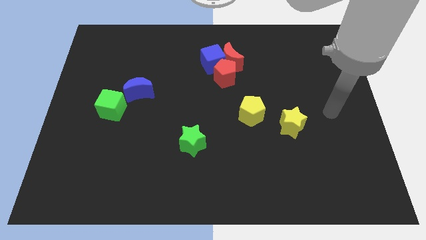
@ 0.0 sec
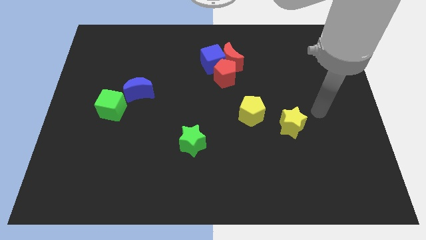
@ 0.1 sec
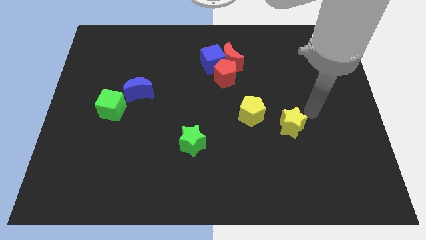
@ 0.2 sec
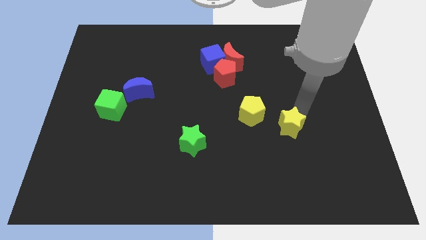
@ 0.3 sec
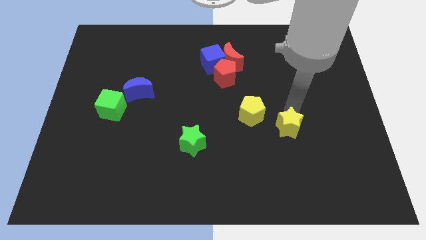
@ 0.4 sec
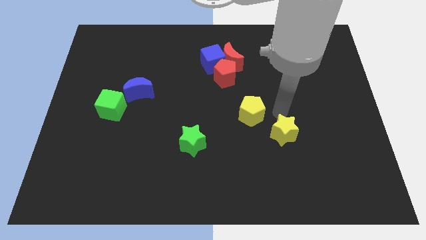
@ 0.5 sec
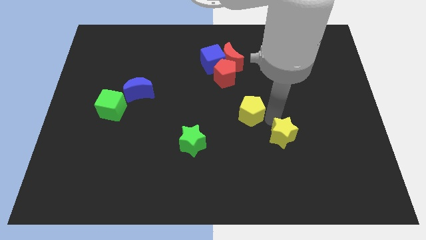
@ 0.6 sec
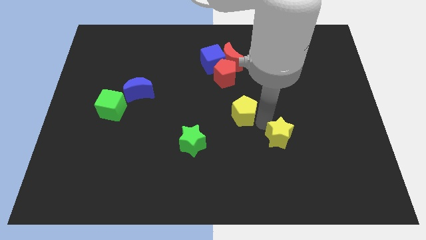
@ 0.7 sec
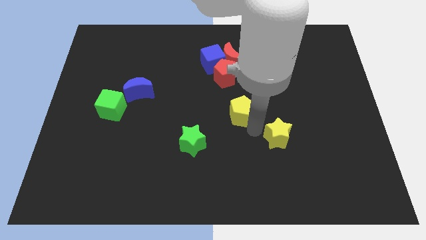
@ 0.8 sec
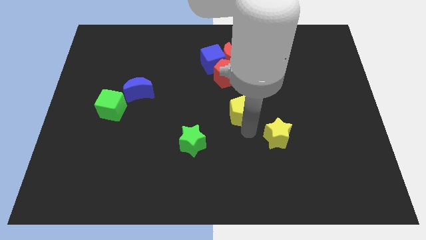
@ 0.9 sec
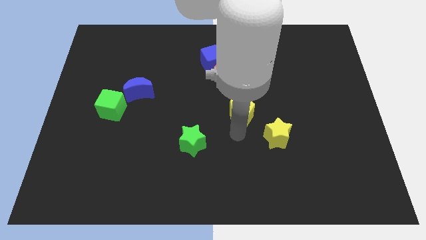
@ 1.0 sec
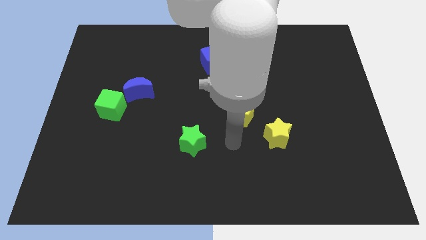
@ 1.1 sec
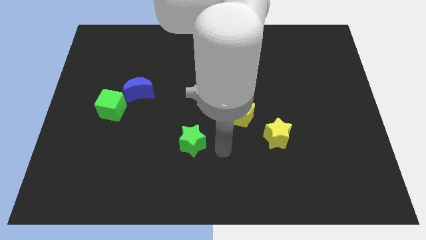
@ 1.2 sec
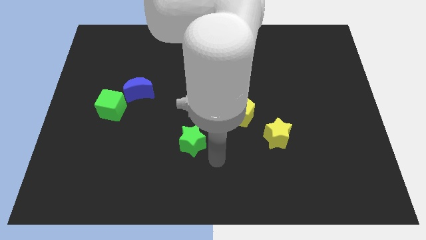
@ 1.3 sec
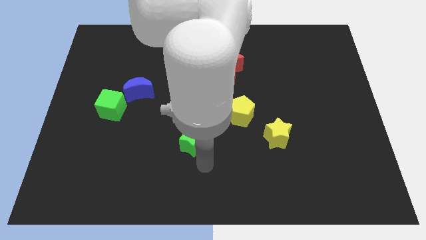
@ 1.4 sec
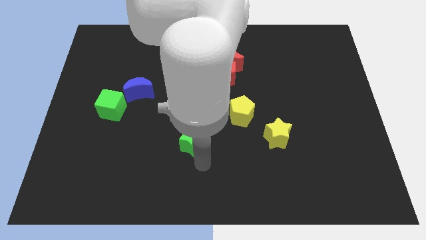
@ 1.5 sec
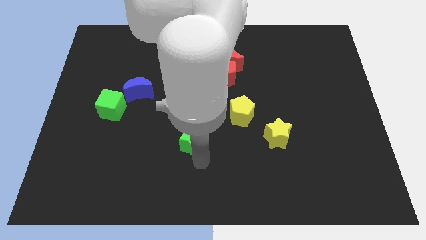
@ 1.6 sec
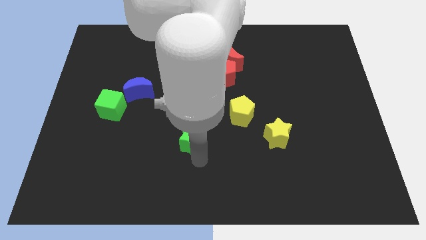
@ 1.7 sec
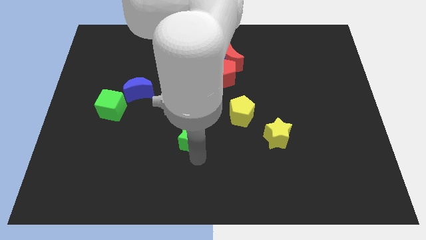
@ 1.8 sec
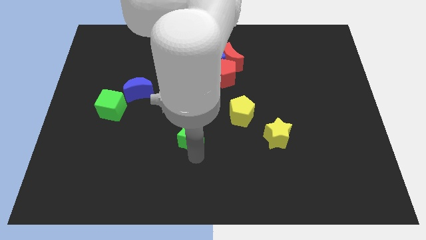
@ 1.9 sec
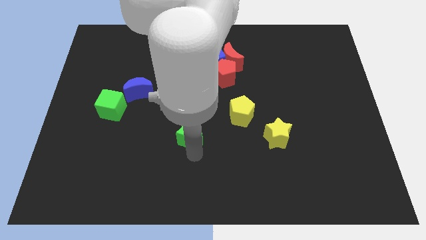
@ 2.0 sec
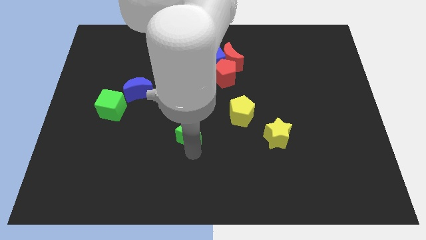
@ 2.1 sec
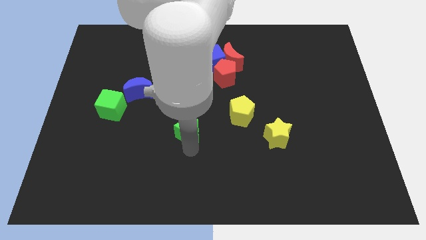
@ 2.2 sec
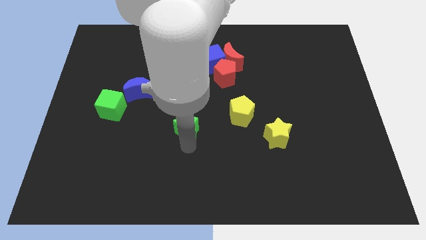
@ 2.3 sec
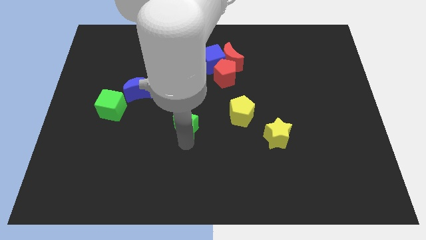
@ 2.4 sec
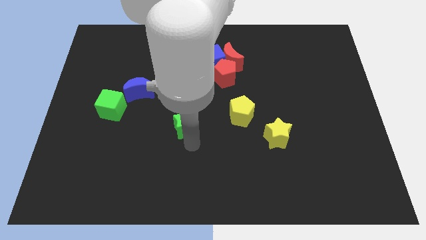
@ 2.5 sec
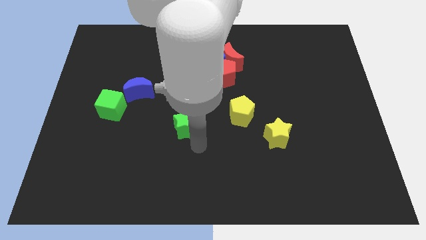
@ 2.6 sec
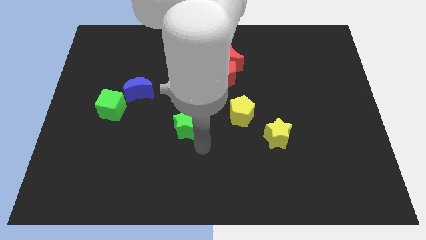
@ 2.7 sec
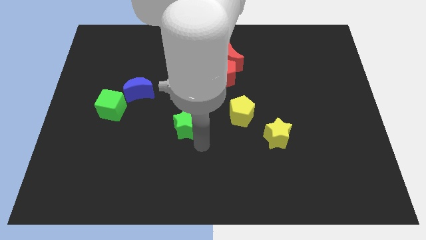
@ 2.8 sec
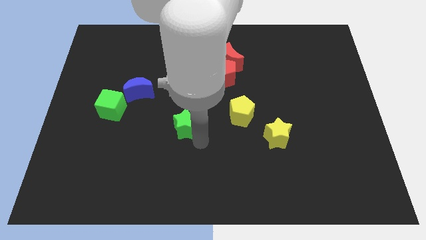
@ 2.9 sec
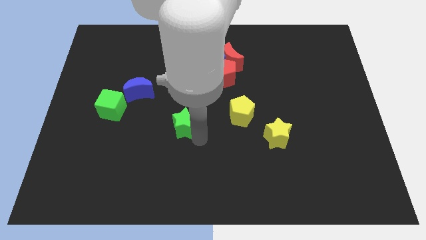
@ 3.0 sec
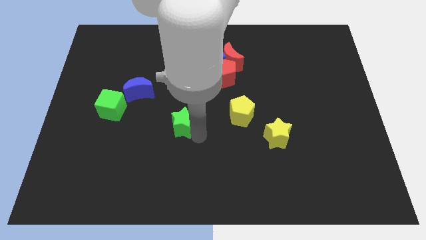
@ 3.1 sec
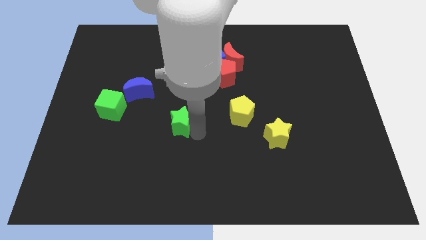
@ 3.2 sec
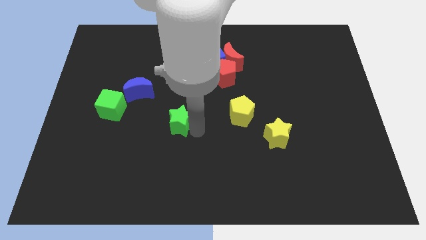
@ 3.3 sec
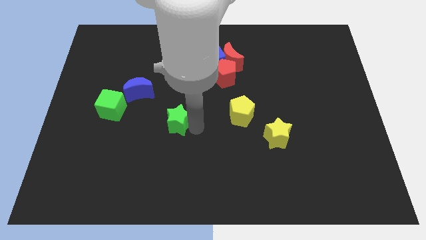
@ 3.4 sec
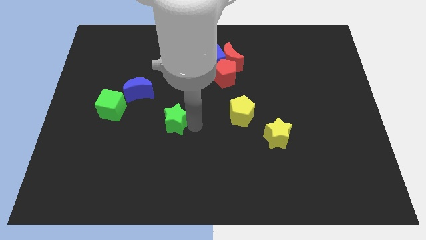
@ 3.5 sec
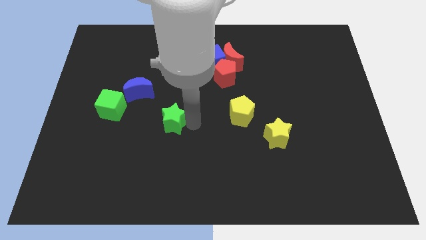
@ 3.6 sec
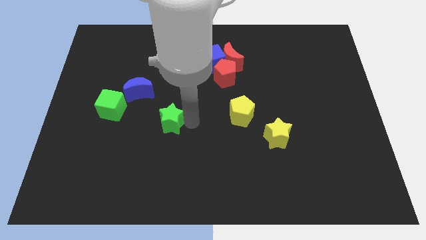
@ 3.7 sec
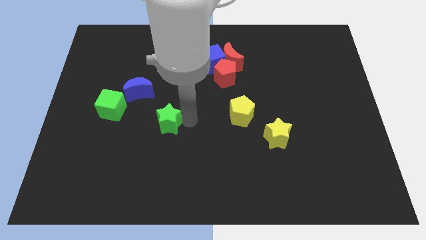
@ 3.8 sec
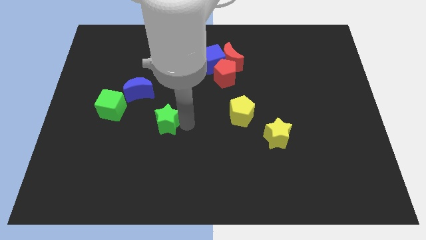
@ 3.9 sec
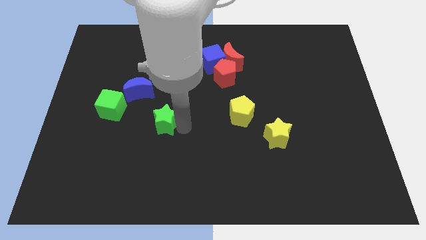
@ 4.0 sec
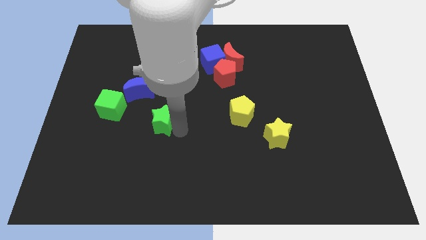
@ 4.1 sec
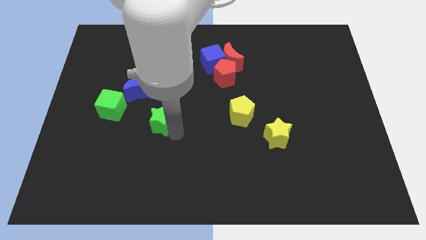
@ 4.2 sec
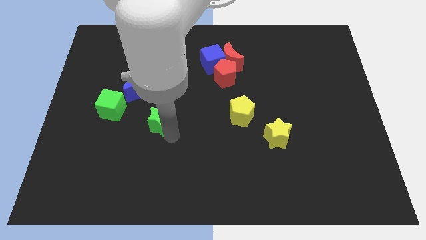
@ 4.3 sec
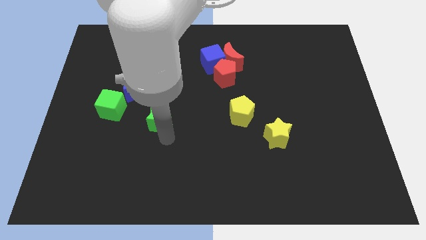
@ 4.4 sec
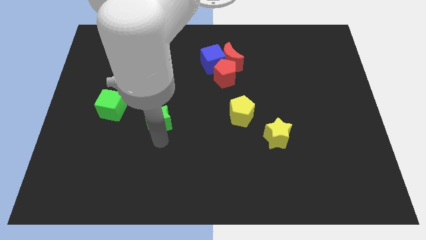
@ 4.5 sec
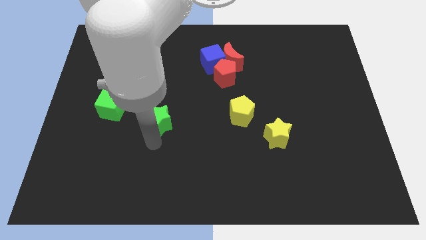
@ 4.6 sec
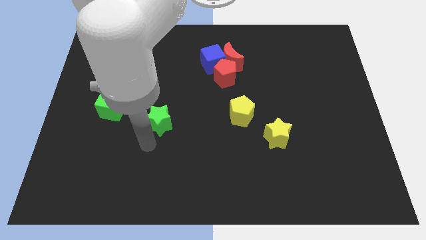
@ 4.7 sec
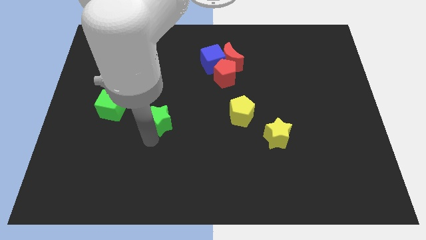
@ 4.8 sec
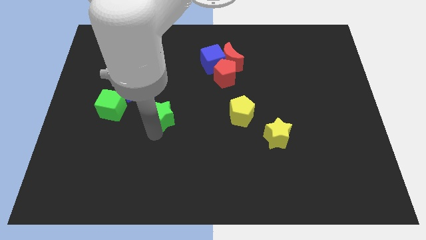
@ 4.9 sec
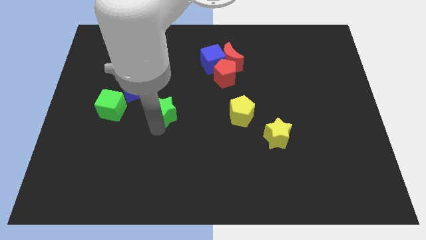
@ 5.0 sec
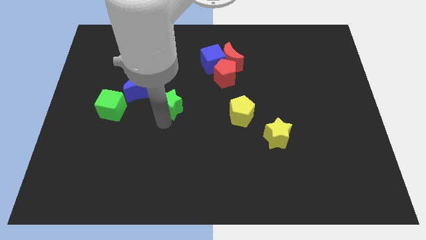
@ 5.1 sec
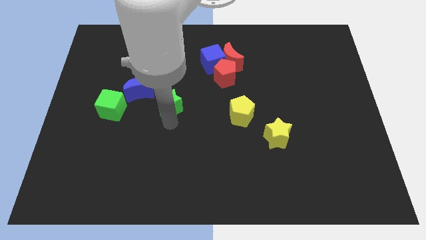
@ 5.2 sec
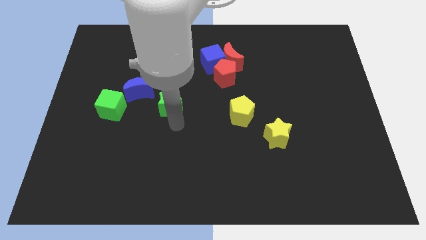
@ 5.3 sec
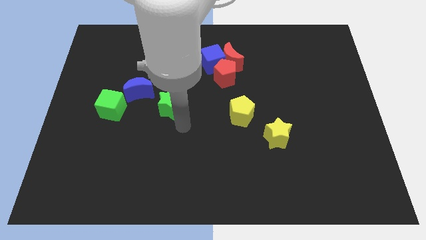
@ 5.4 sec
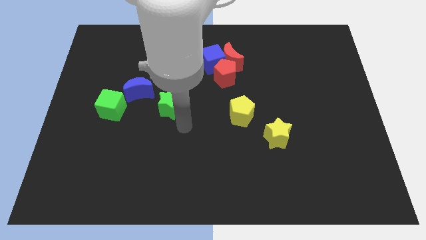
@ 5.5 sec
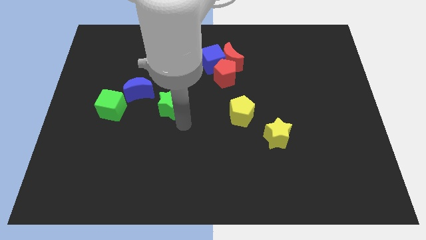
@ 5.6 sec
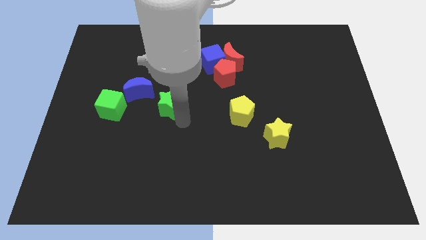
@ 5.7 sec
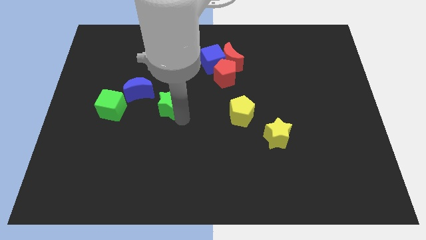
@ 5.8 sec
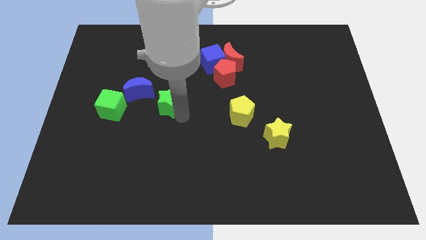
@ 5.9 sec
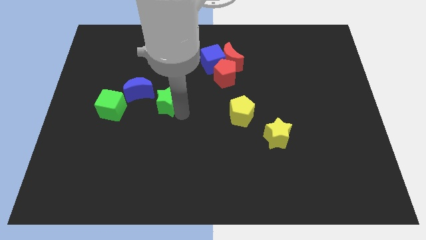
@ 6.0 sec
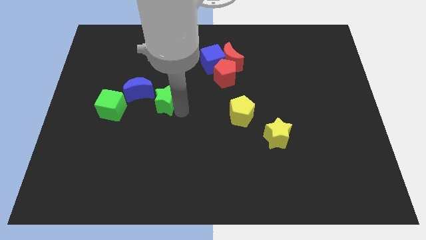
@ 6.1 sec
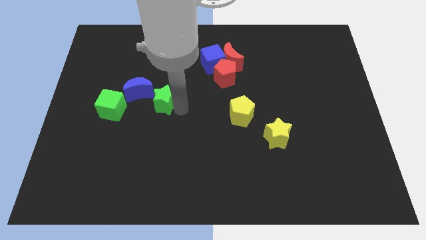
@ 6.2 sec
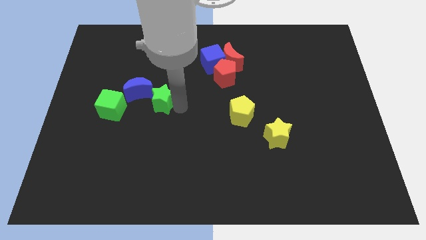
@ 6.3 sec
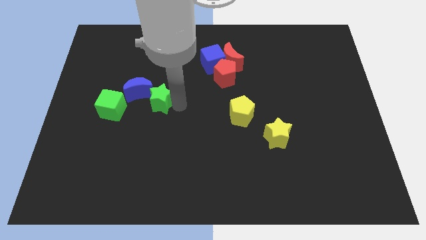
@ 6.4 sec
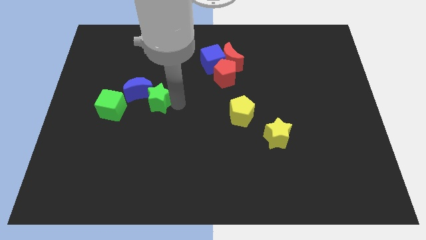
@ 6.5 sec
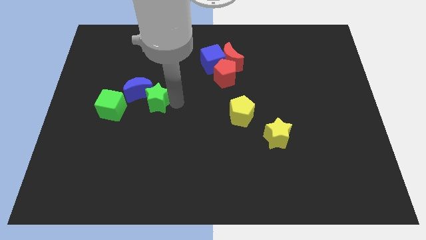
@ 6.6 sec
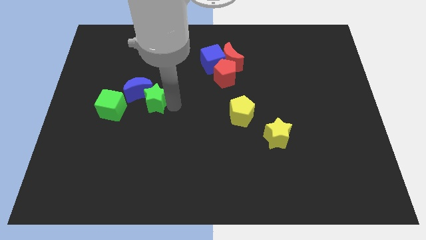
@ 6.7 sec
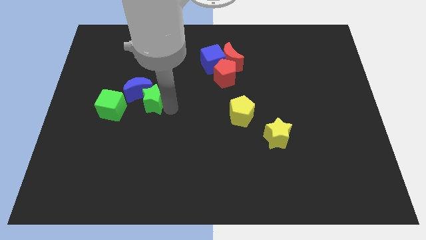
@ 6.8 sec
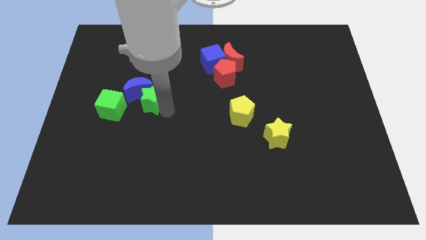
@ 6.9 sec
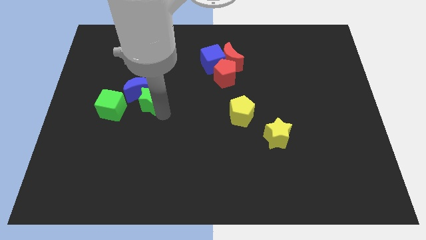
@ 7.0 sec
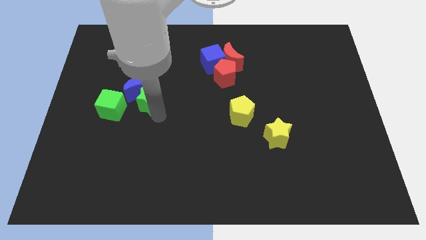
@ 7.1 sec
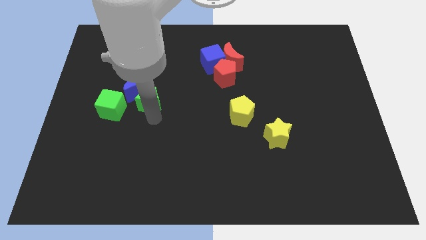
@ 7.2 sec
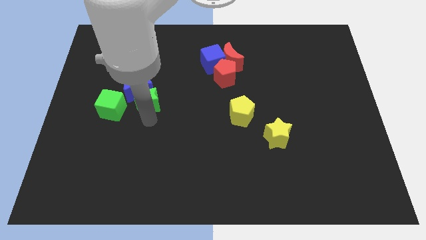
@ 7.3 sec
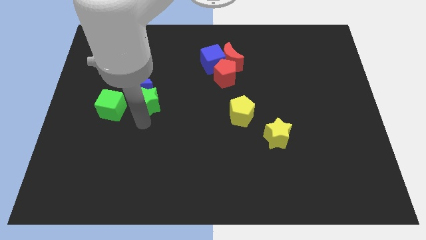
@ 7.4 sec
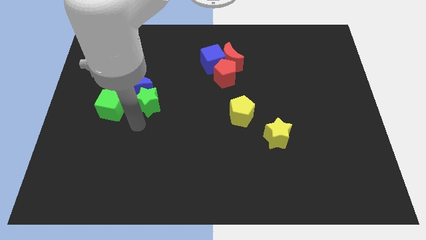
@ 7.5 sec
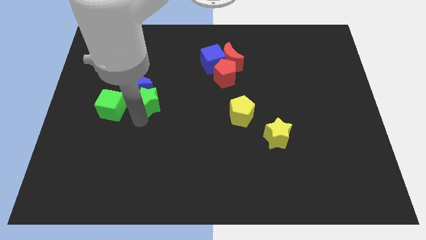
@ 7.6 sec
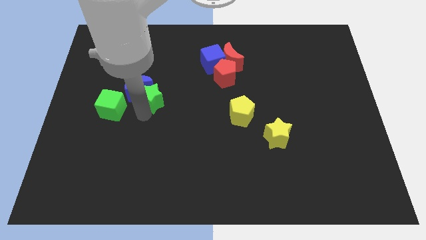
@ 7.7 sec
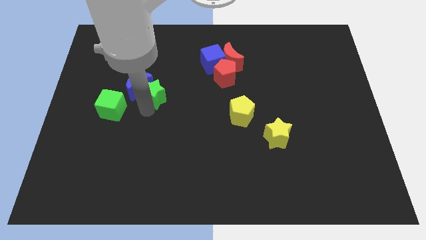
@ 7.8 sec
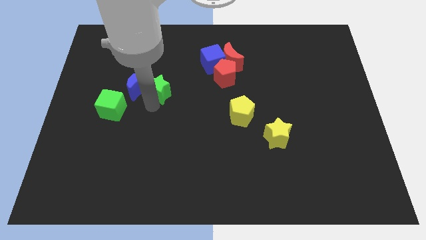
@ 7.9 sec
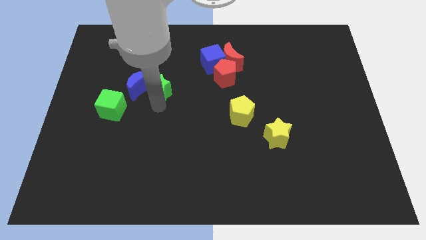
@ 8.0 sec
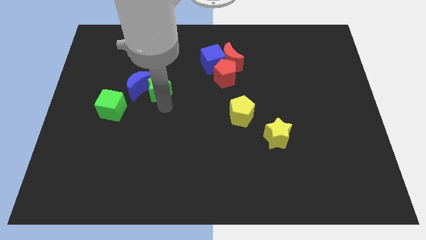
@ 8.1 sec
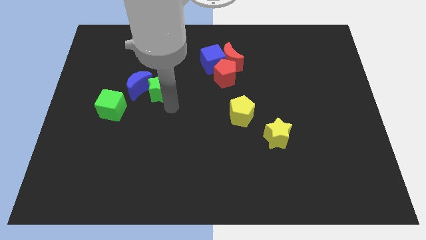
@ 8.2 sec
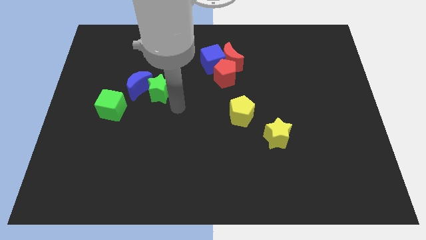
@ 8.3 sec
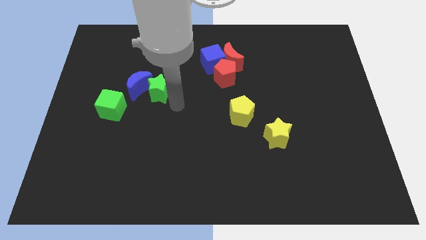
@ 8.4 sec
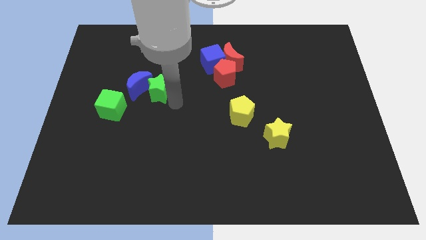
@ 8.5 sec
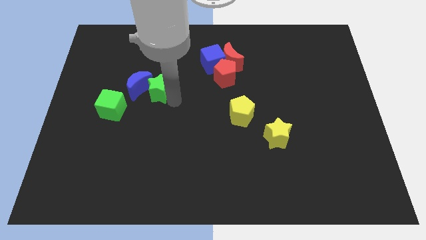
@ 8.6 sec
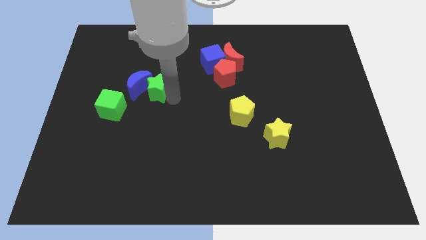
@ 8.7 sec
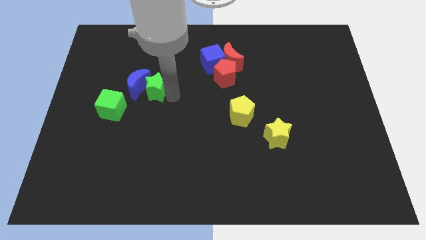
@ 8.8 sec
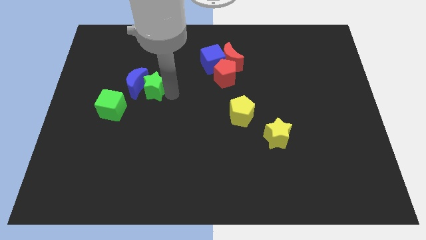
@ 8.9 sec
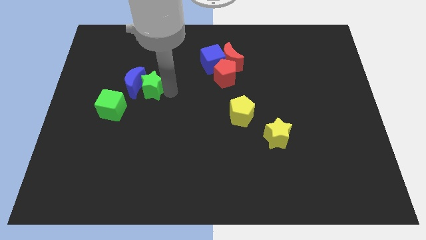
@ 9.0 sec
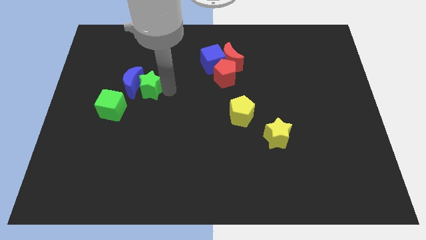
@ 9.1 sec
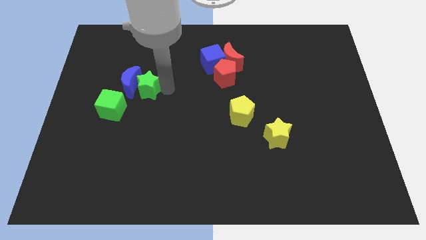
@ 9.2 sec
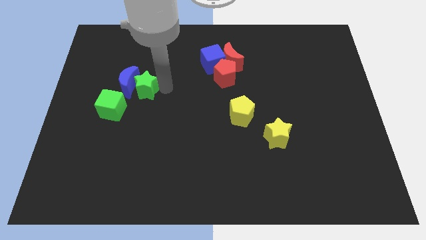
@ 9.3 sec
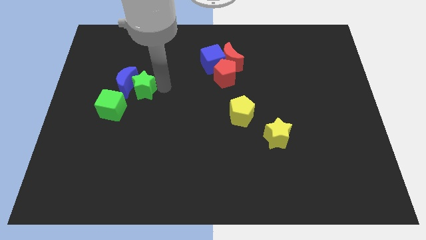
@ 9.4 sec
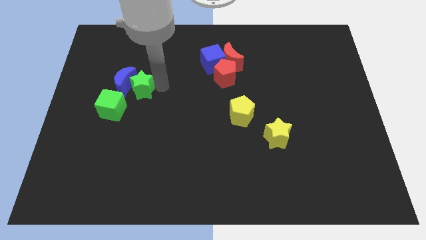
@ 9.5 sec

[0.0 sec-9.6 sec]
slide the green star diagonally upwards and to the left
